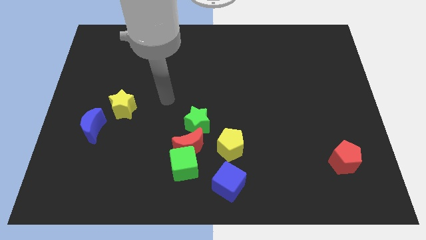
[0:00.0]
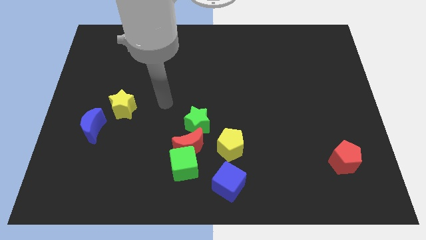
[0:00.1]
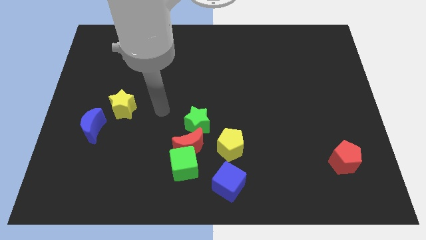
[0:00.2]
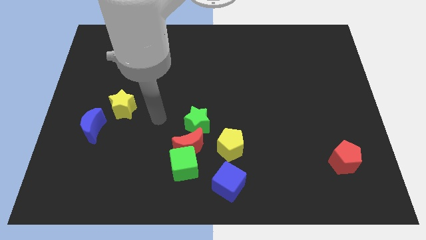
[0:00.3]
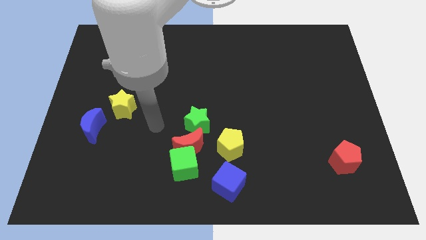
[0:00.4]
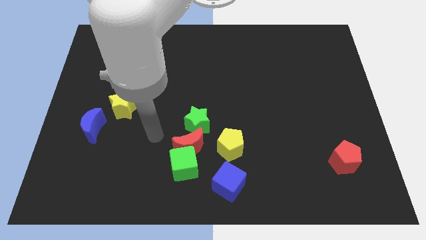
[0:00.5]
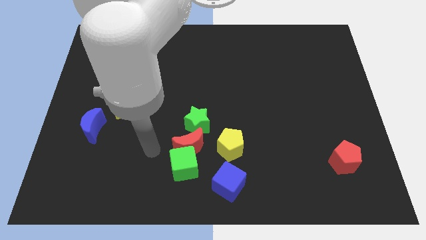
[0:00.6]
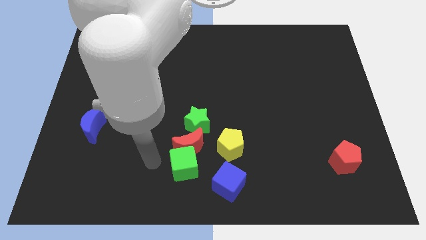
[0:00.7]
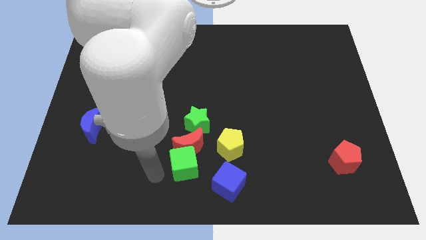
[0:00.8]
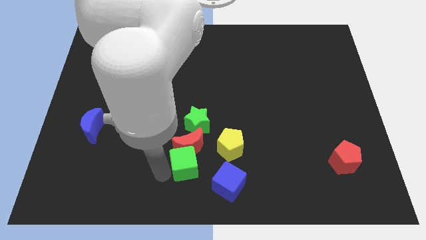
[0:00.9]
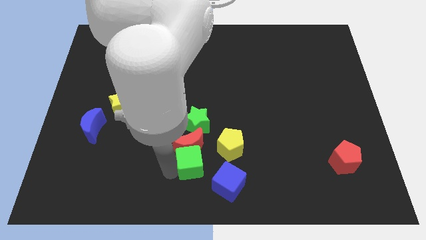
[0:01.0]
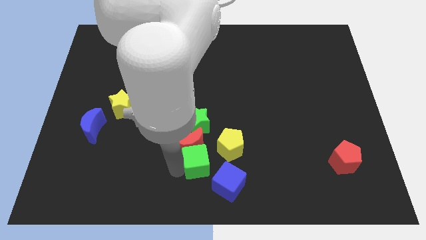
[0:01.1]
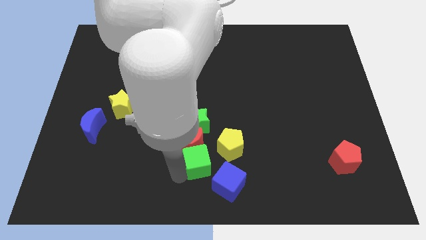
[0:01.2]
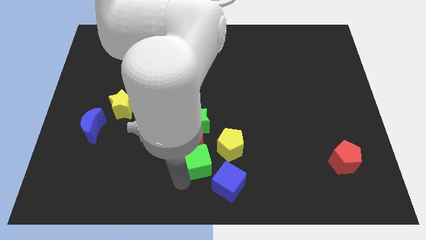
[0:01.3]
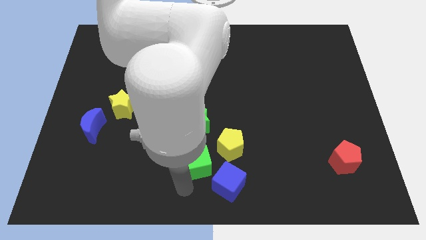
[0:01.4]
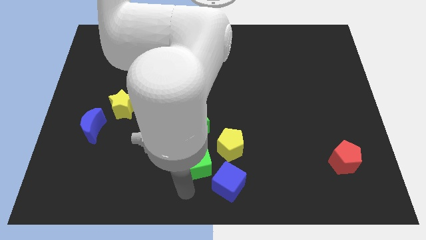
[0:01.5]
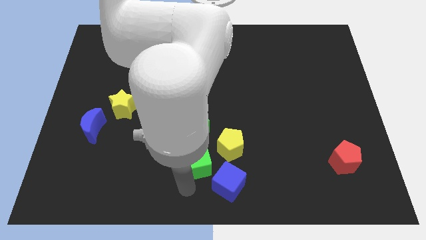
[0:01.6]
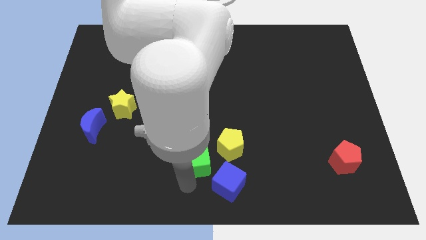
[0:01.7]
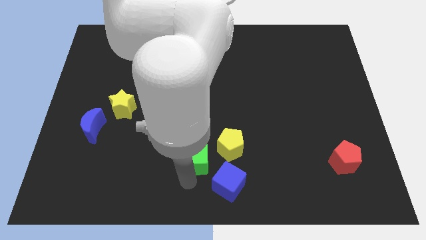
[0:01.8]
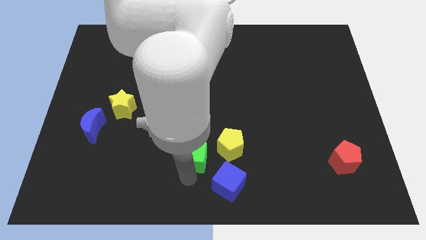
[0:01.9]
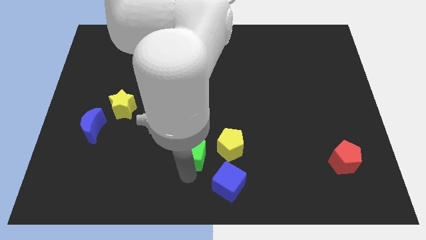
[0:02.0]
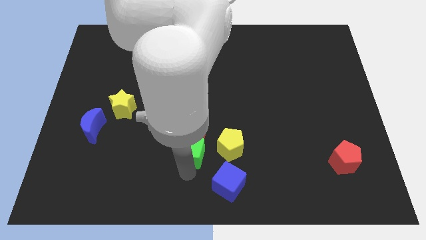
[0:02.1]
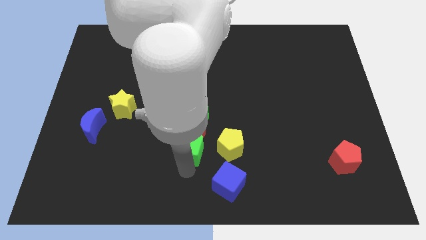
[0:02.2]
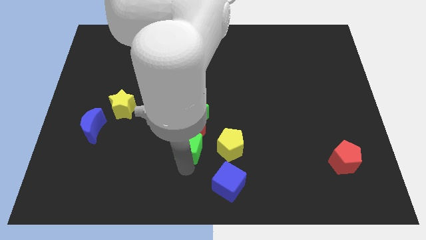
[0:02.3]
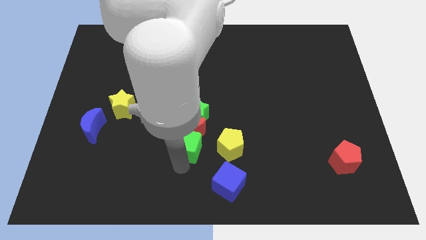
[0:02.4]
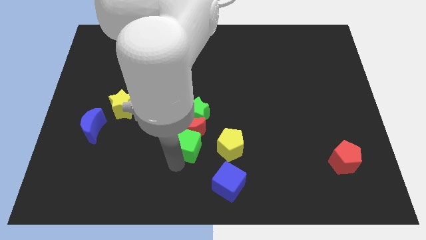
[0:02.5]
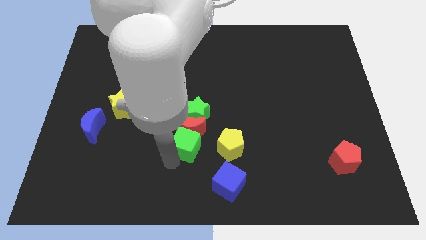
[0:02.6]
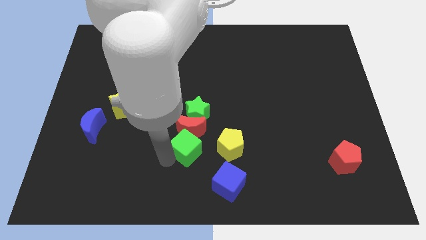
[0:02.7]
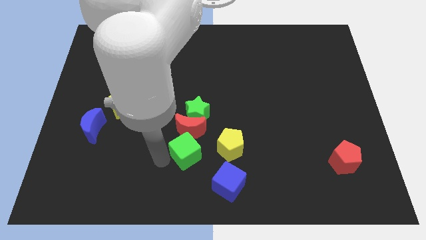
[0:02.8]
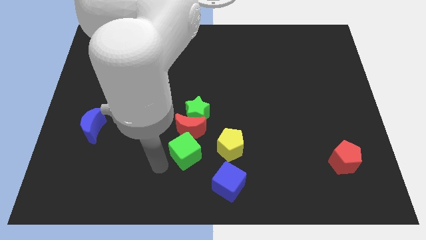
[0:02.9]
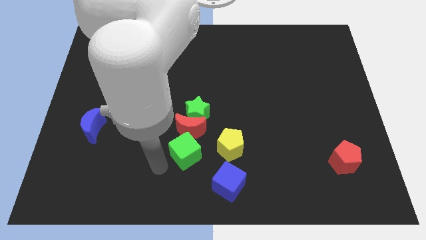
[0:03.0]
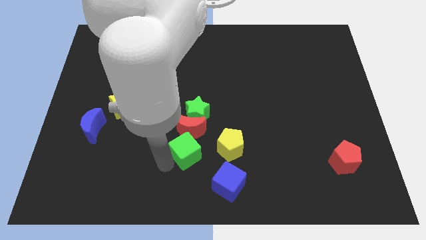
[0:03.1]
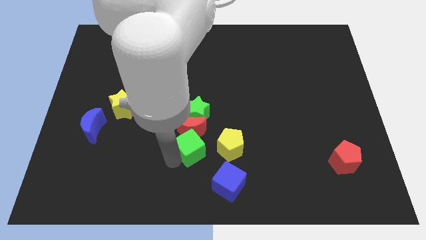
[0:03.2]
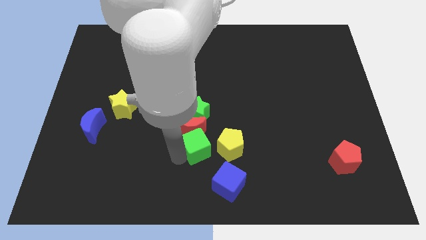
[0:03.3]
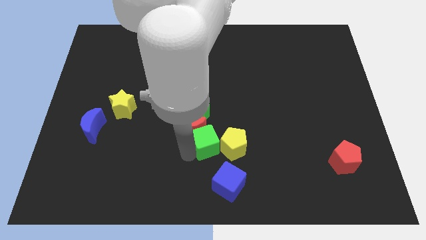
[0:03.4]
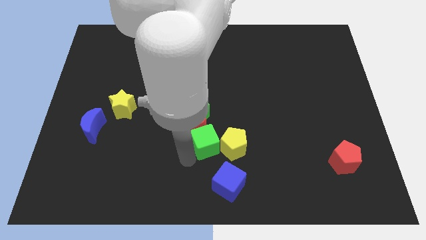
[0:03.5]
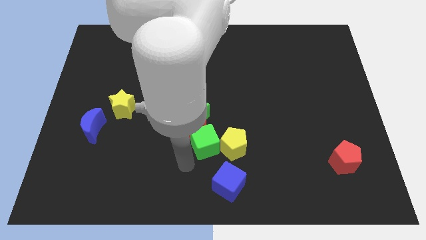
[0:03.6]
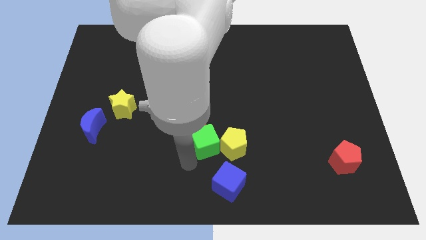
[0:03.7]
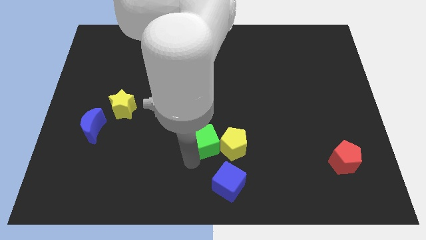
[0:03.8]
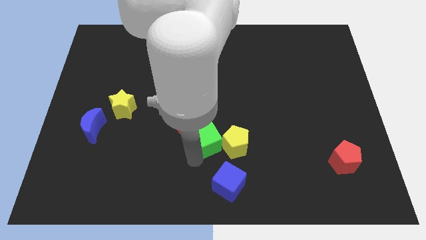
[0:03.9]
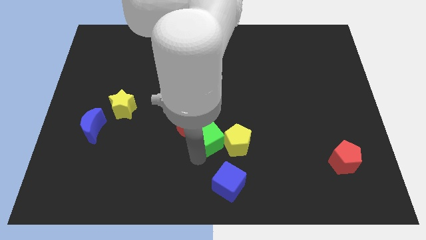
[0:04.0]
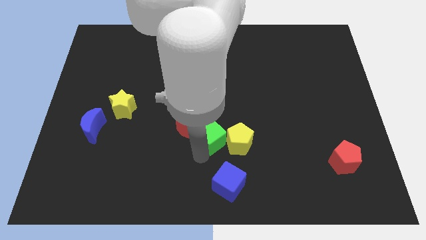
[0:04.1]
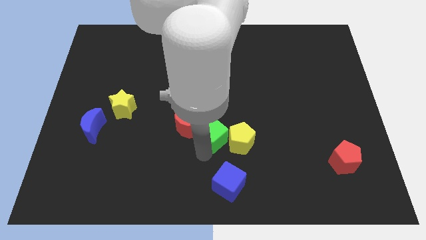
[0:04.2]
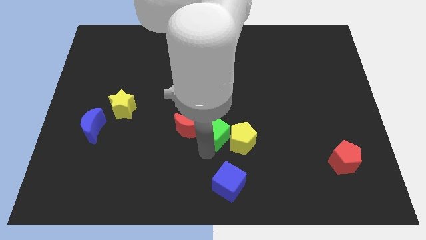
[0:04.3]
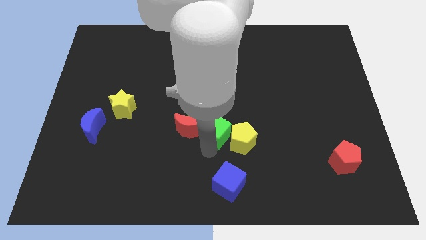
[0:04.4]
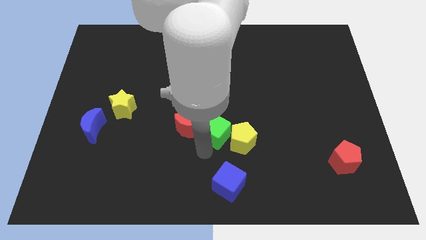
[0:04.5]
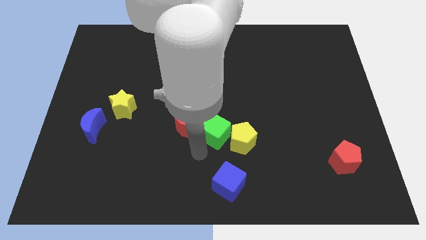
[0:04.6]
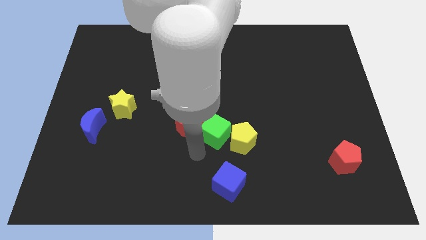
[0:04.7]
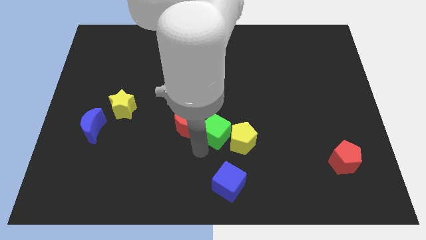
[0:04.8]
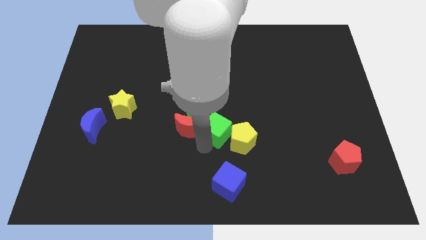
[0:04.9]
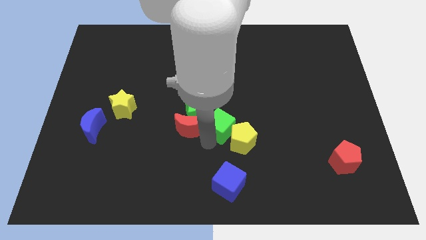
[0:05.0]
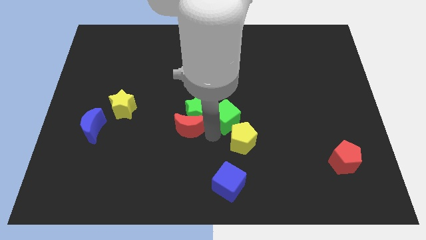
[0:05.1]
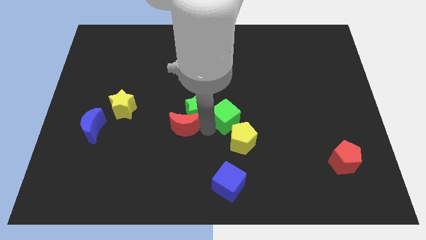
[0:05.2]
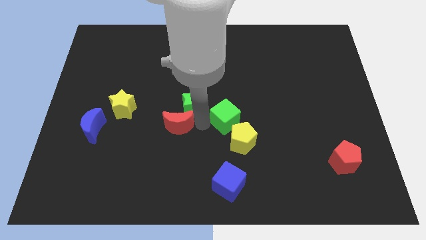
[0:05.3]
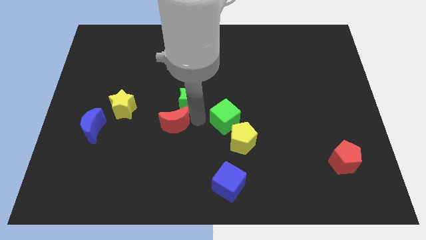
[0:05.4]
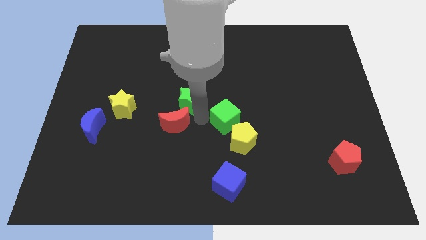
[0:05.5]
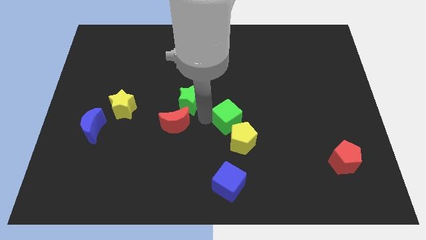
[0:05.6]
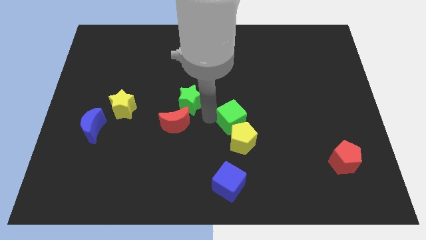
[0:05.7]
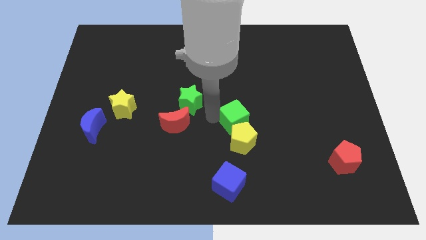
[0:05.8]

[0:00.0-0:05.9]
push the green cube to the top right side of the yellow pentagon

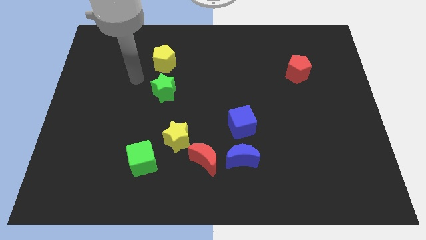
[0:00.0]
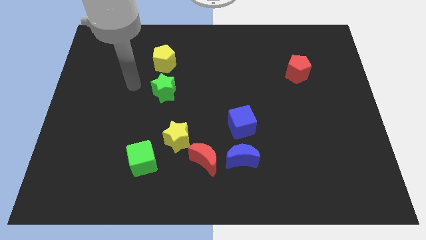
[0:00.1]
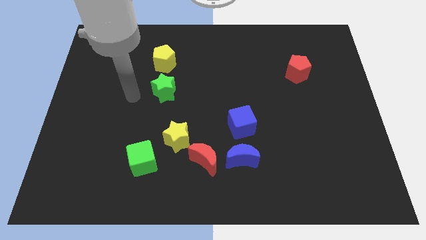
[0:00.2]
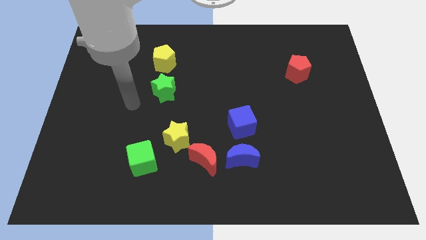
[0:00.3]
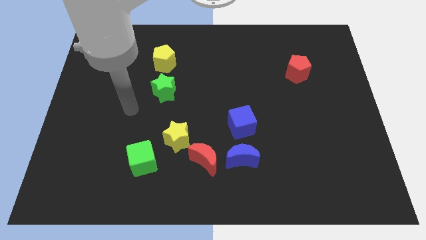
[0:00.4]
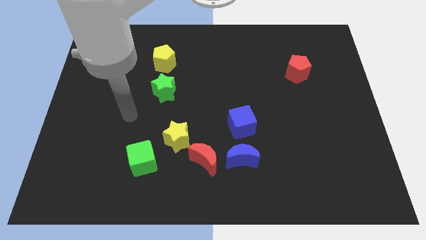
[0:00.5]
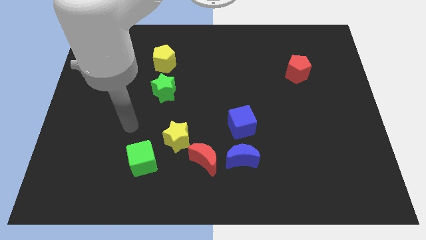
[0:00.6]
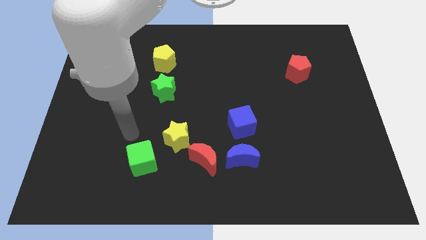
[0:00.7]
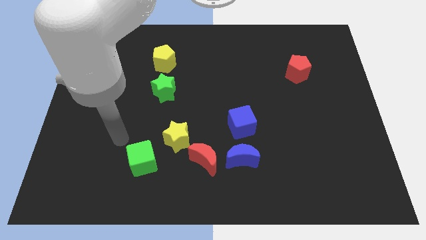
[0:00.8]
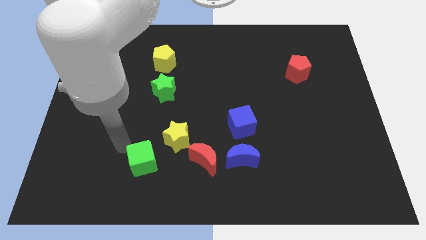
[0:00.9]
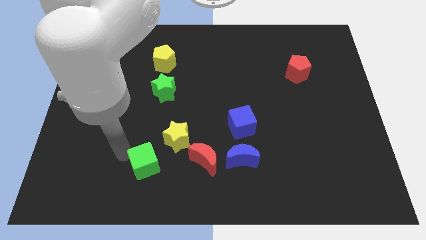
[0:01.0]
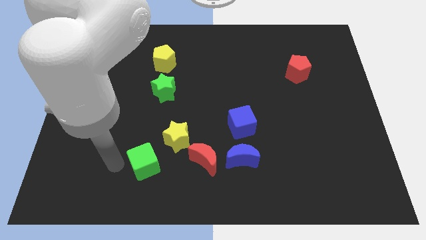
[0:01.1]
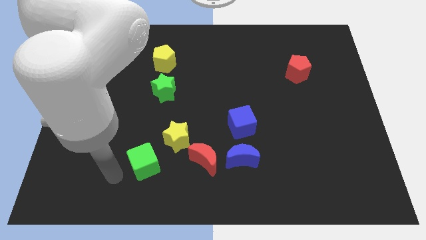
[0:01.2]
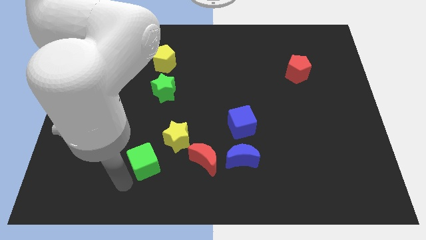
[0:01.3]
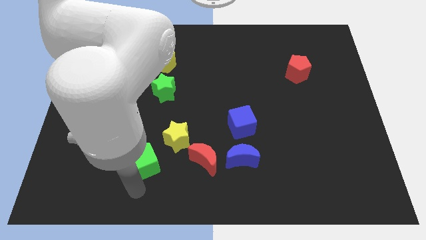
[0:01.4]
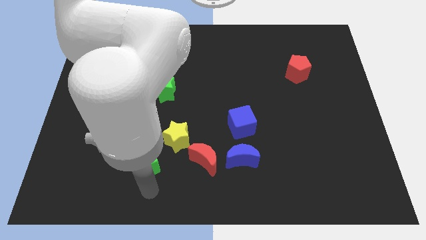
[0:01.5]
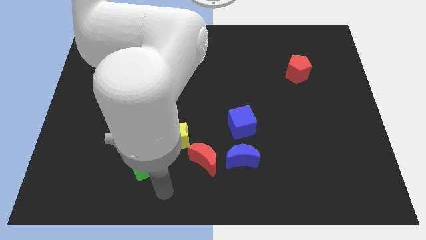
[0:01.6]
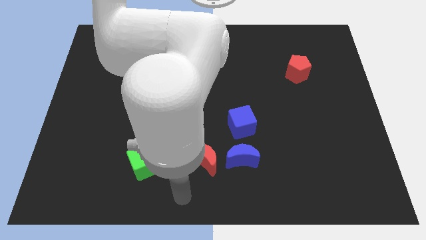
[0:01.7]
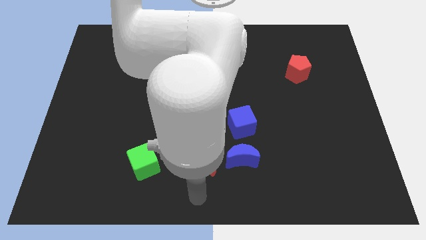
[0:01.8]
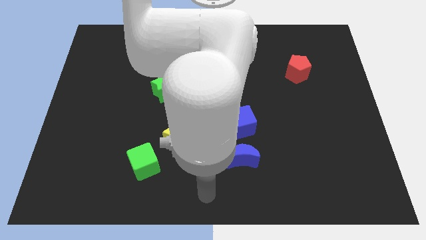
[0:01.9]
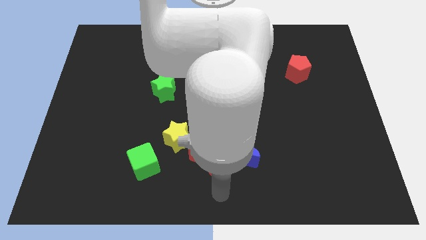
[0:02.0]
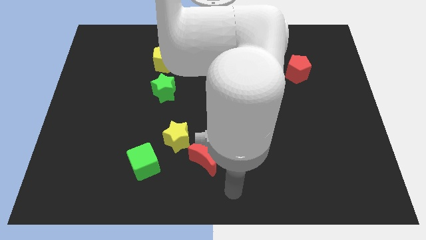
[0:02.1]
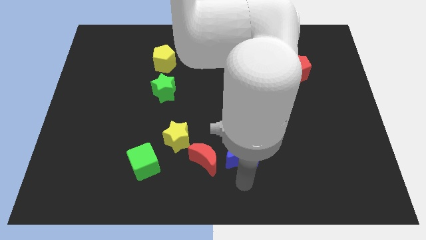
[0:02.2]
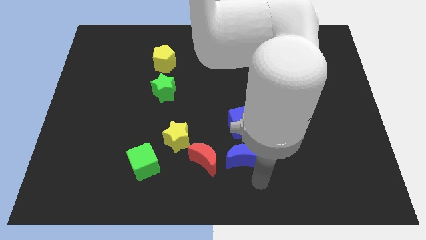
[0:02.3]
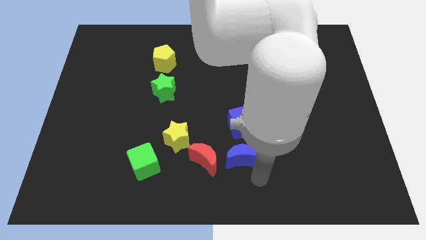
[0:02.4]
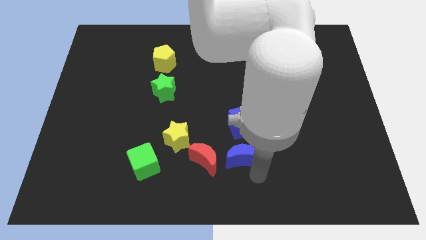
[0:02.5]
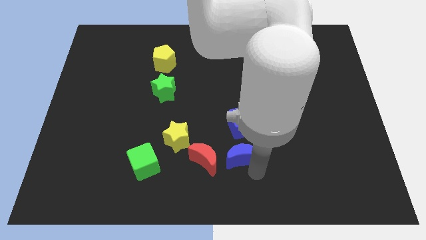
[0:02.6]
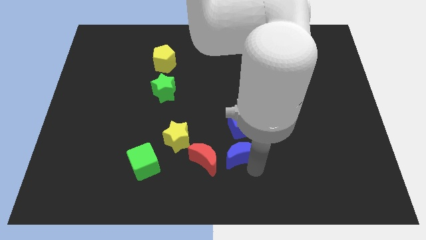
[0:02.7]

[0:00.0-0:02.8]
put the blue moon to the right side of the yellow star
